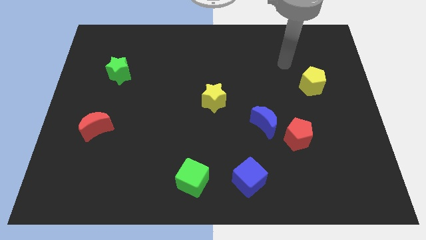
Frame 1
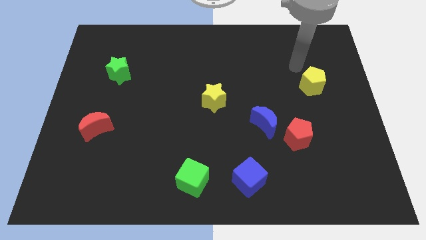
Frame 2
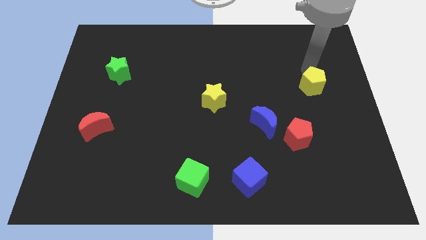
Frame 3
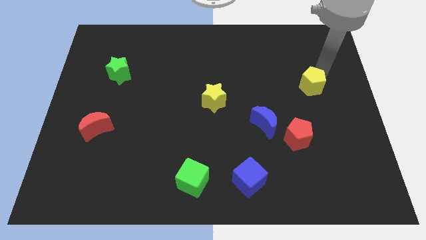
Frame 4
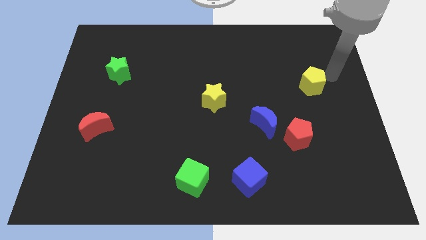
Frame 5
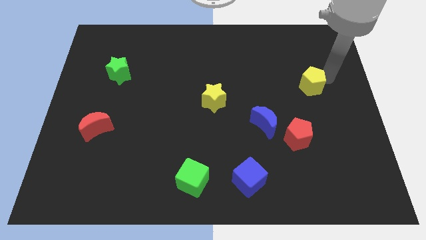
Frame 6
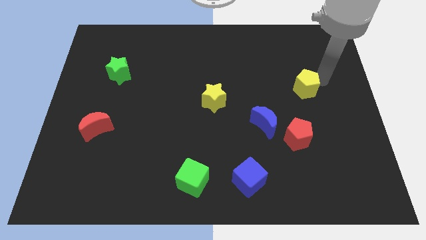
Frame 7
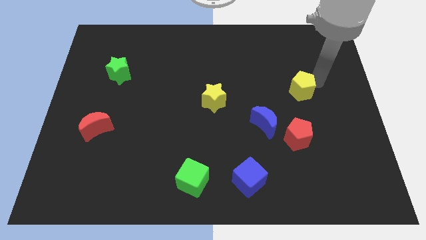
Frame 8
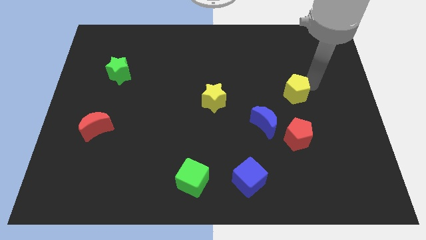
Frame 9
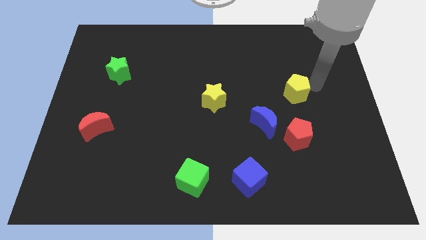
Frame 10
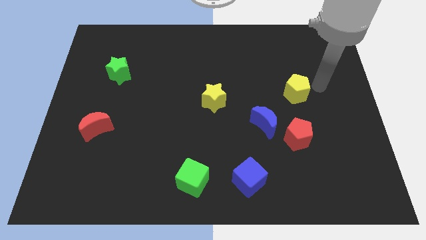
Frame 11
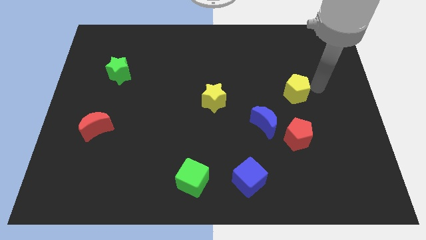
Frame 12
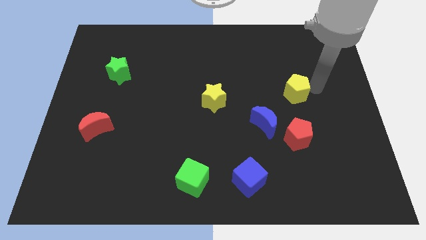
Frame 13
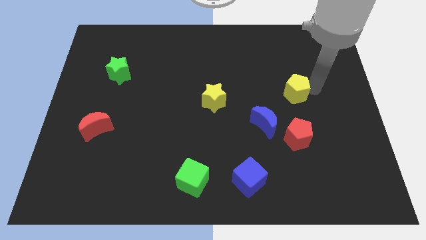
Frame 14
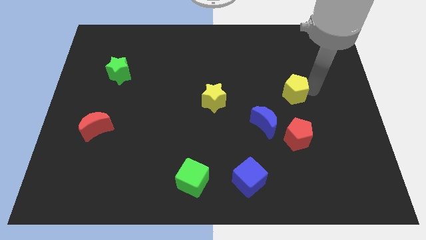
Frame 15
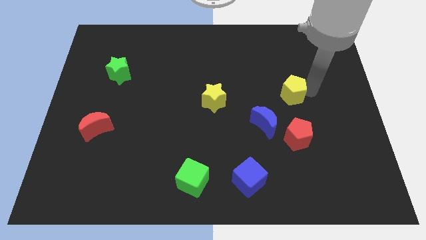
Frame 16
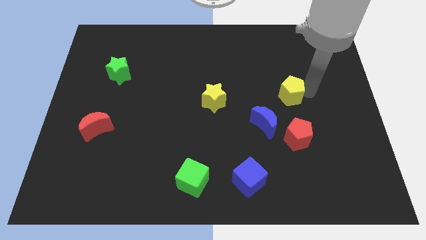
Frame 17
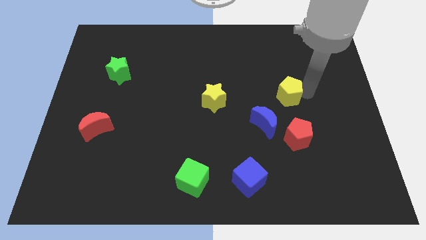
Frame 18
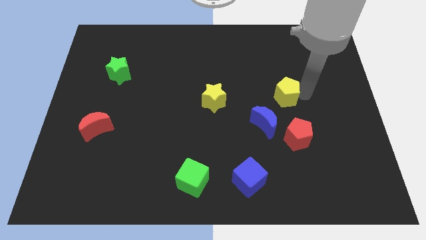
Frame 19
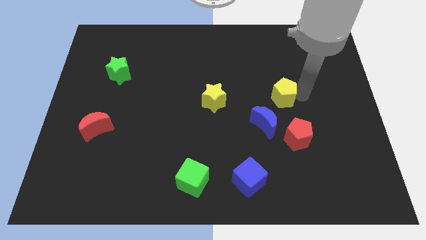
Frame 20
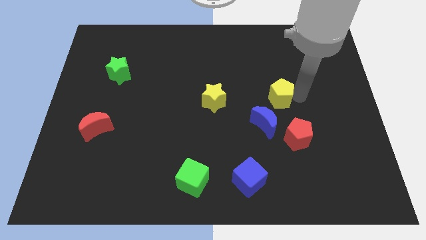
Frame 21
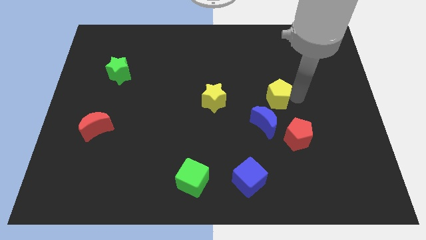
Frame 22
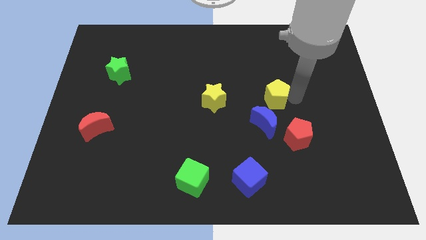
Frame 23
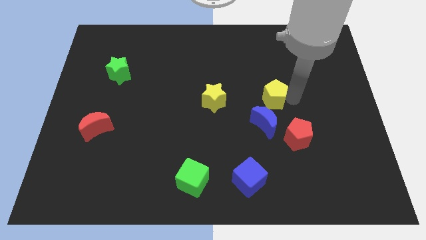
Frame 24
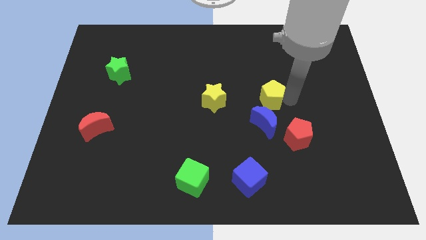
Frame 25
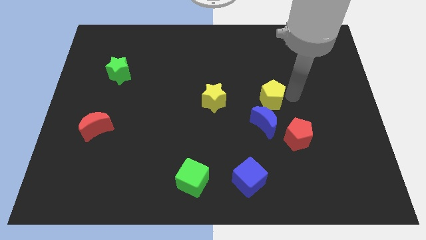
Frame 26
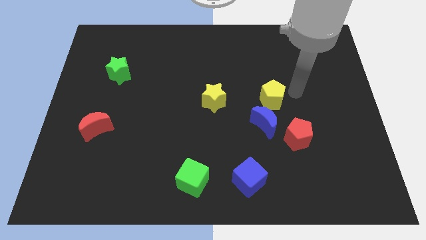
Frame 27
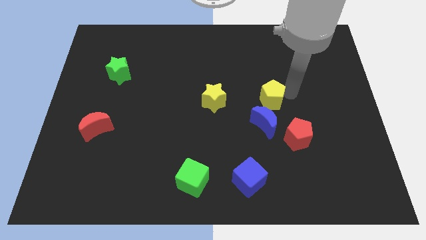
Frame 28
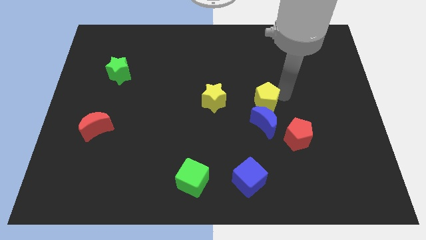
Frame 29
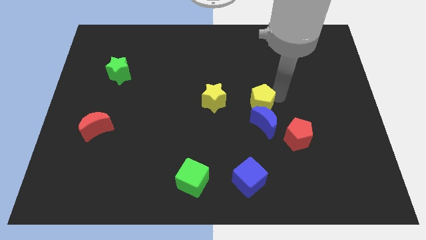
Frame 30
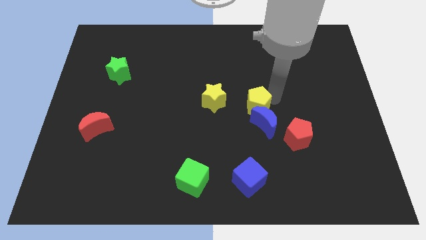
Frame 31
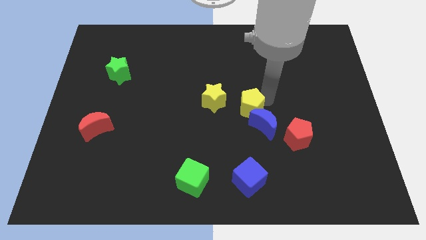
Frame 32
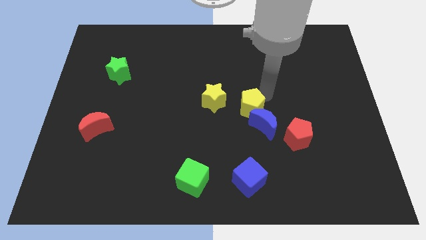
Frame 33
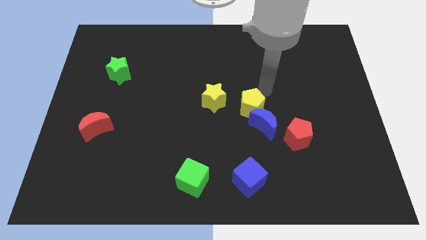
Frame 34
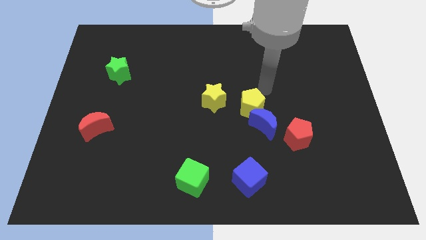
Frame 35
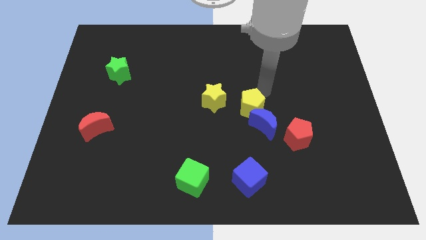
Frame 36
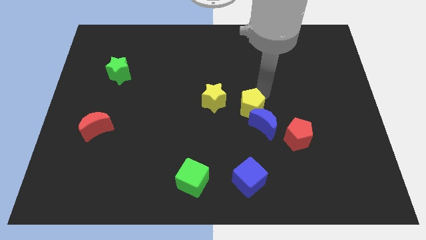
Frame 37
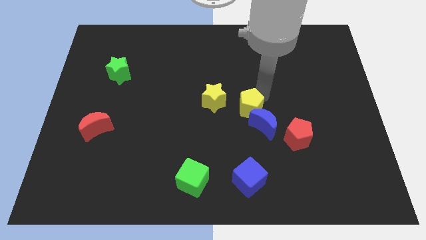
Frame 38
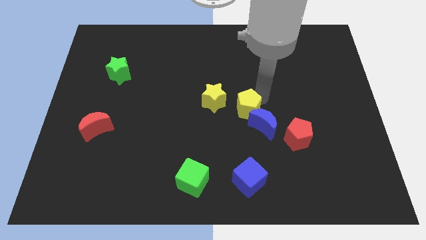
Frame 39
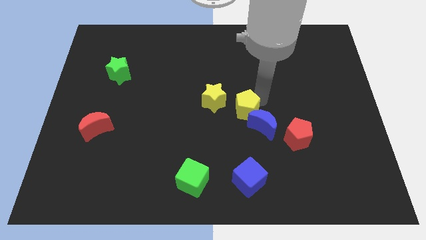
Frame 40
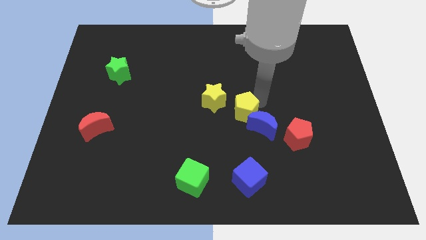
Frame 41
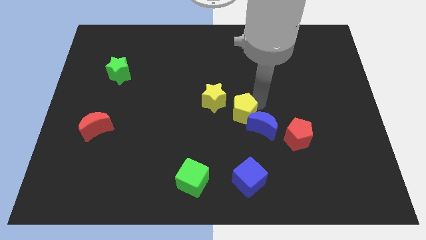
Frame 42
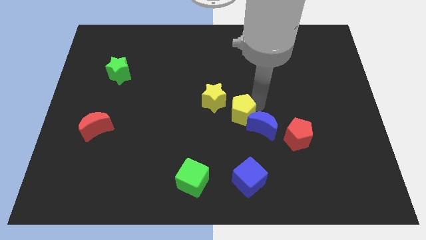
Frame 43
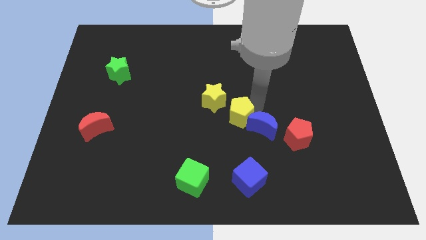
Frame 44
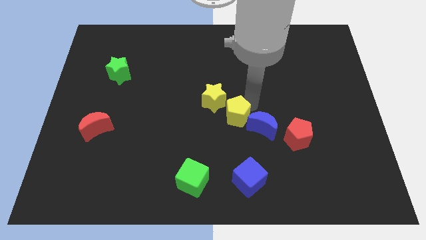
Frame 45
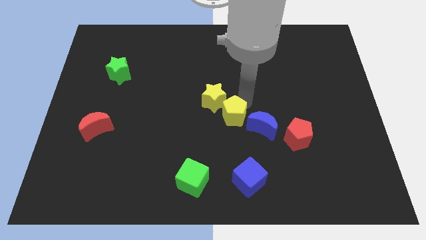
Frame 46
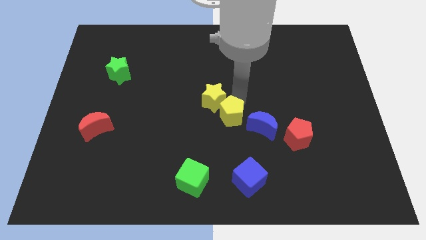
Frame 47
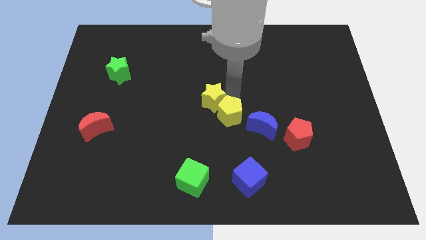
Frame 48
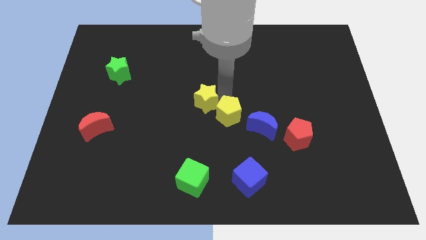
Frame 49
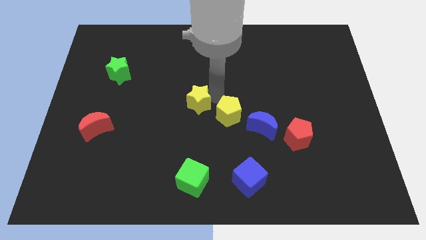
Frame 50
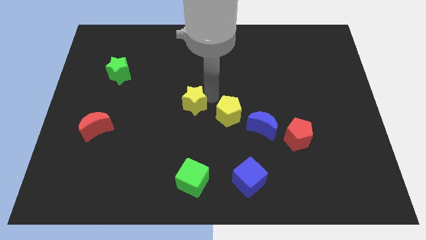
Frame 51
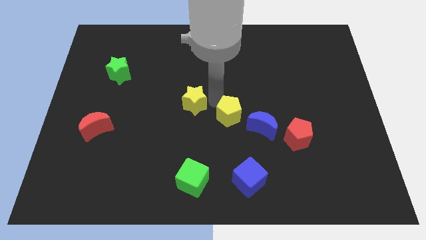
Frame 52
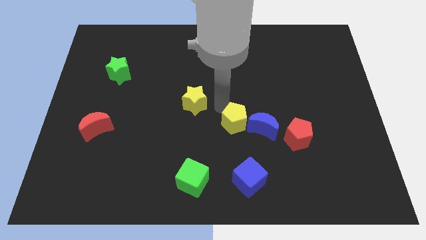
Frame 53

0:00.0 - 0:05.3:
put the yellow pentagon just left of the red pentagon

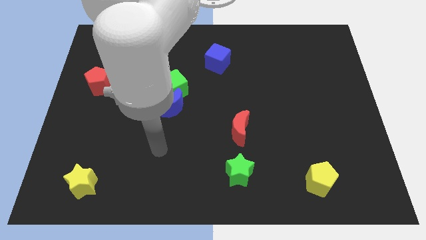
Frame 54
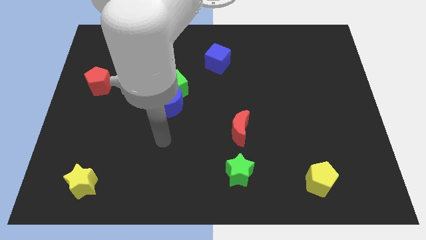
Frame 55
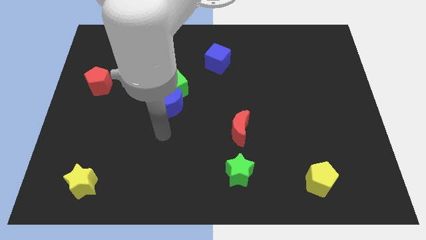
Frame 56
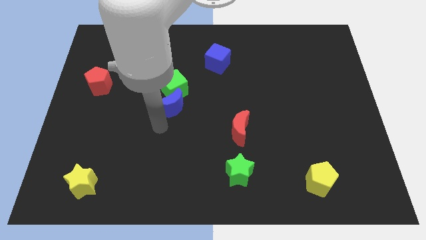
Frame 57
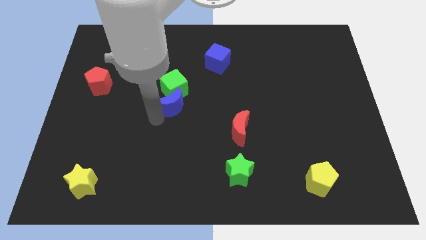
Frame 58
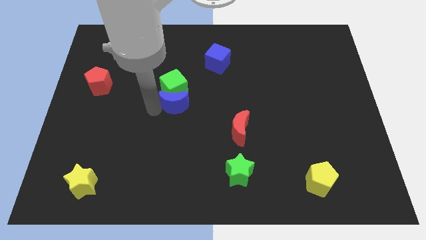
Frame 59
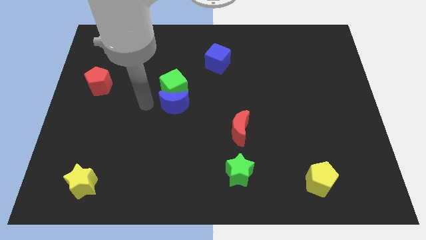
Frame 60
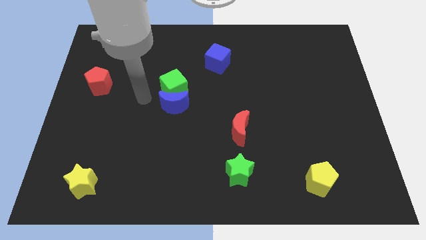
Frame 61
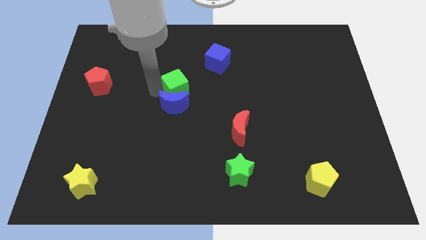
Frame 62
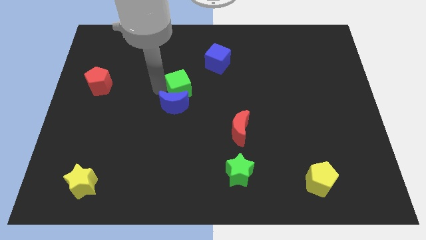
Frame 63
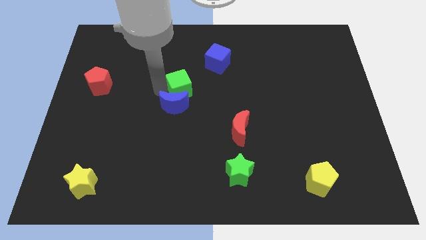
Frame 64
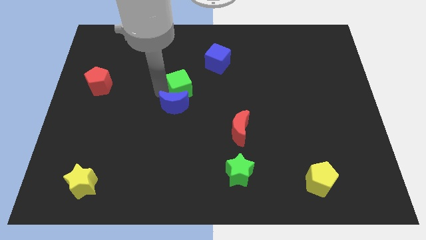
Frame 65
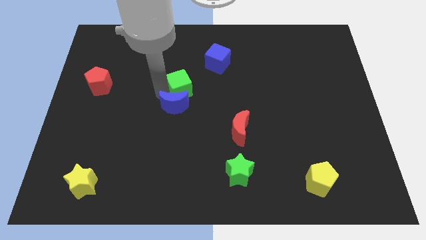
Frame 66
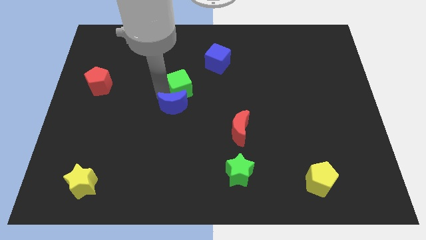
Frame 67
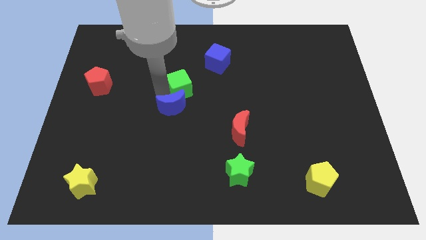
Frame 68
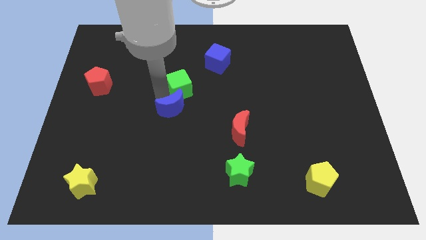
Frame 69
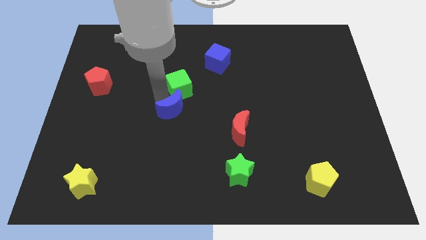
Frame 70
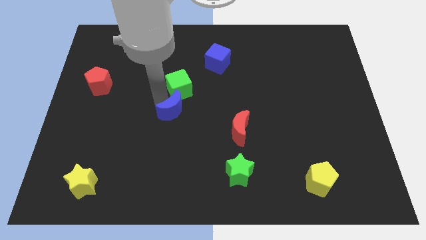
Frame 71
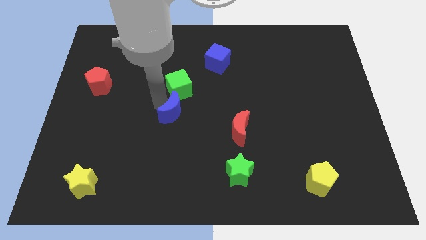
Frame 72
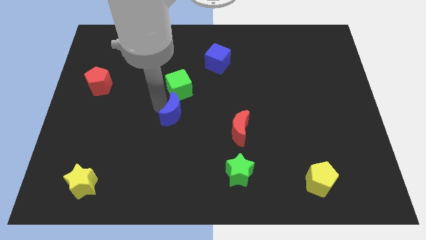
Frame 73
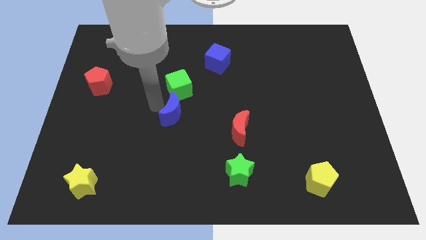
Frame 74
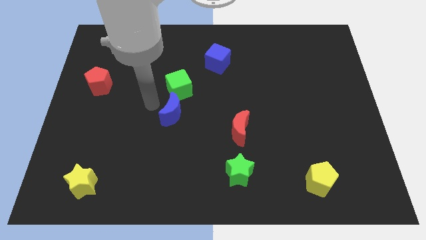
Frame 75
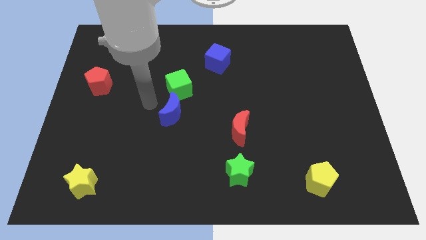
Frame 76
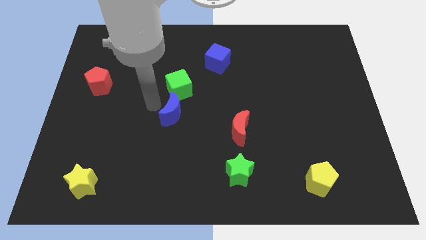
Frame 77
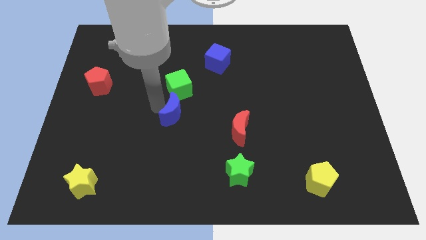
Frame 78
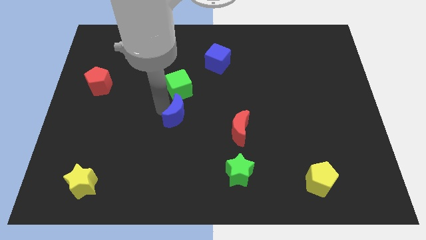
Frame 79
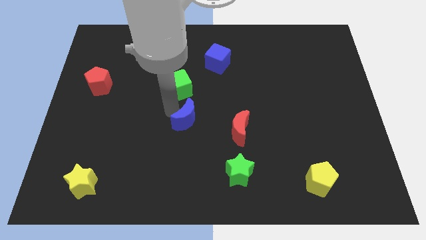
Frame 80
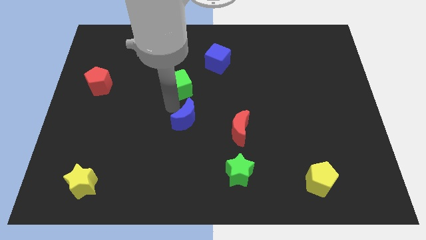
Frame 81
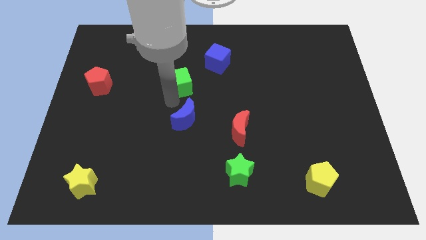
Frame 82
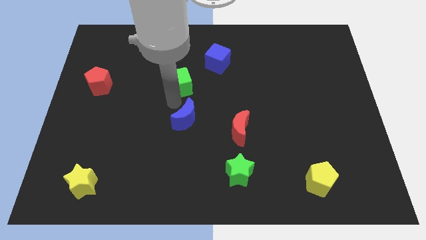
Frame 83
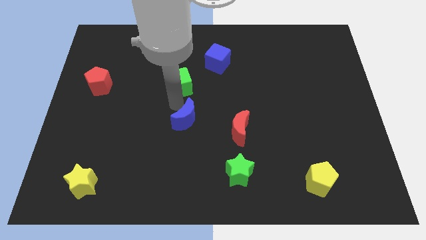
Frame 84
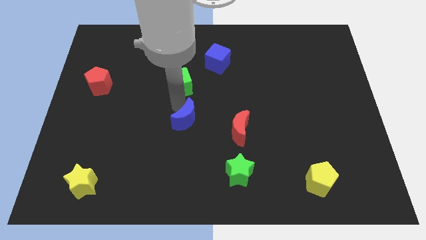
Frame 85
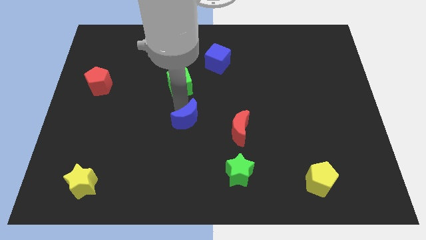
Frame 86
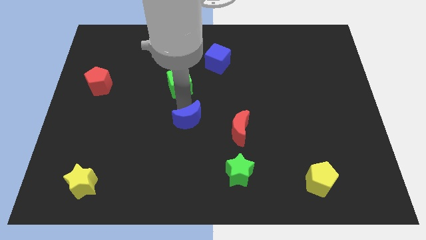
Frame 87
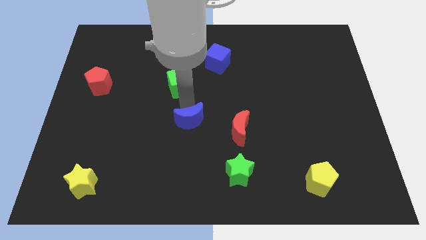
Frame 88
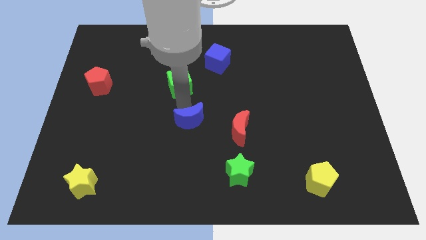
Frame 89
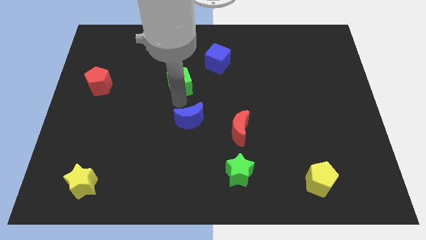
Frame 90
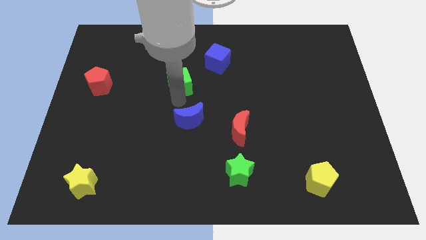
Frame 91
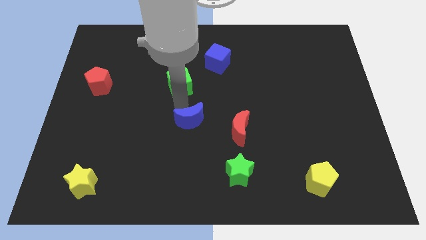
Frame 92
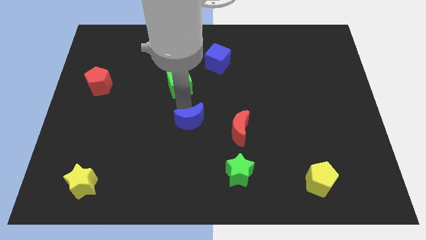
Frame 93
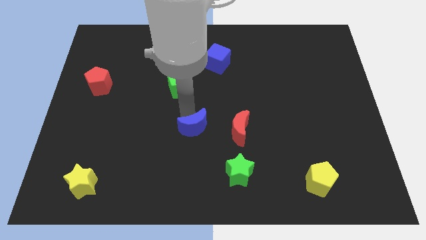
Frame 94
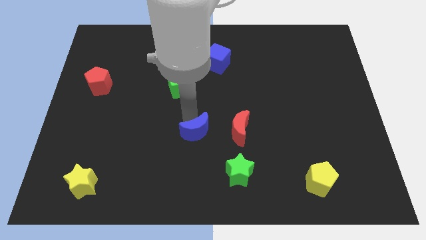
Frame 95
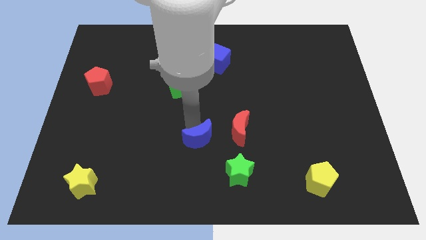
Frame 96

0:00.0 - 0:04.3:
move the blue moon diagonally up and to the left of the green star
